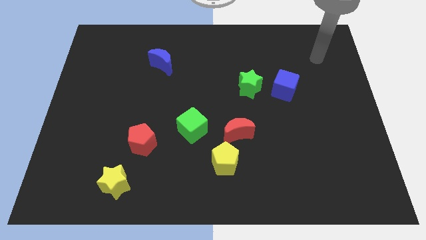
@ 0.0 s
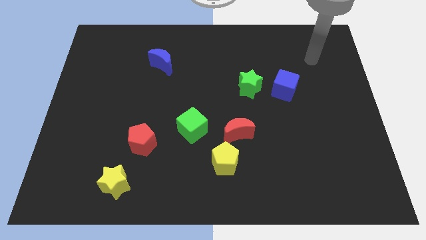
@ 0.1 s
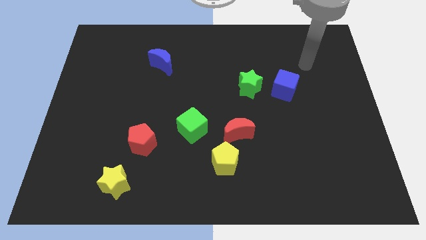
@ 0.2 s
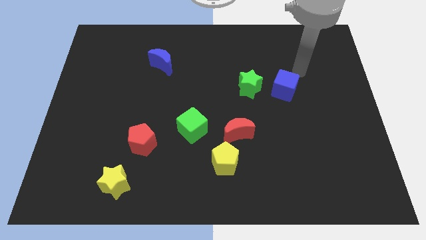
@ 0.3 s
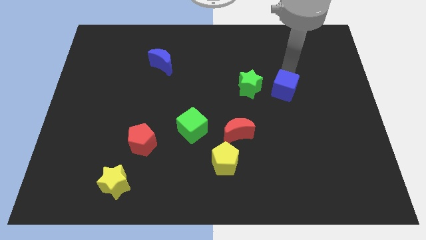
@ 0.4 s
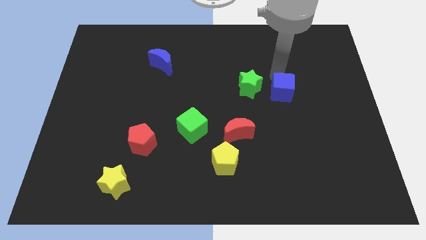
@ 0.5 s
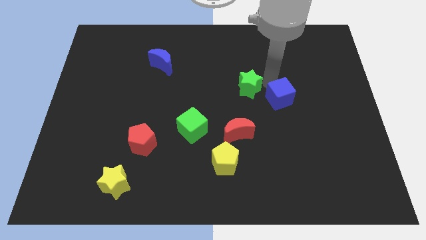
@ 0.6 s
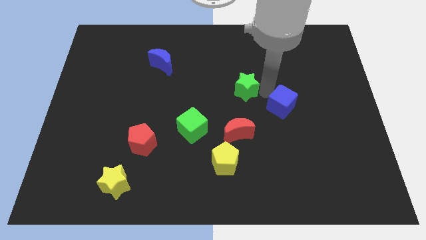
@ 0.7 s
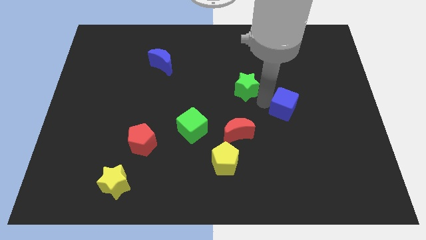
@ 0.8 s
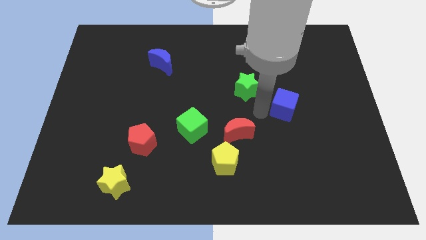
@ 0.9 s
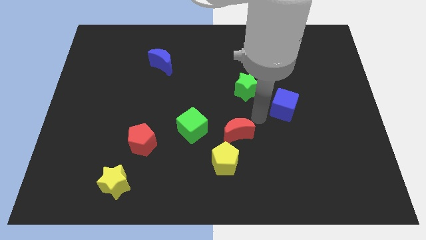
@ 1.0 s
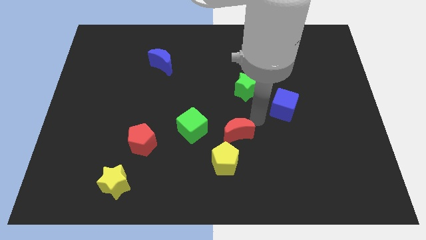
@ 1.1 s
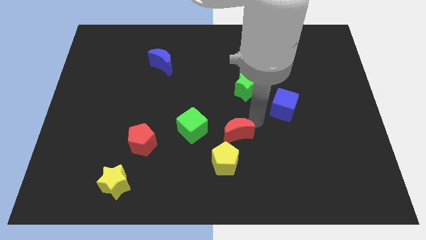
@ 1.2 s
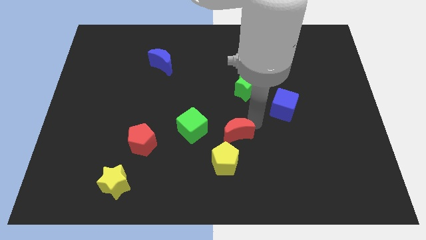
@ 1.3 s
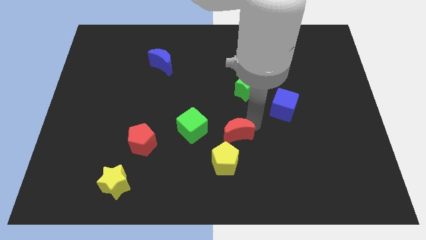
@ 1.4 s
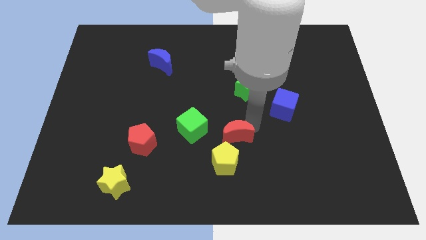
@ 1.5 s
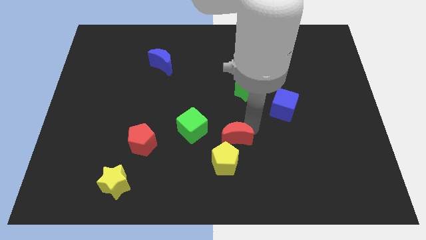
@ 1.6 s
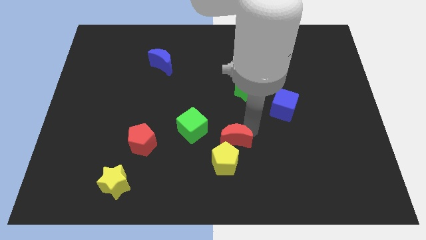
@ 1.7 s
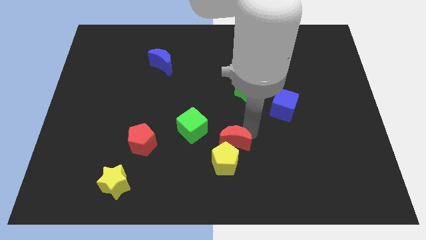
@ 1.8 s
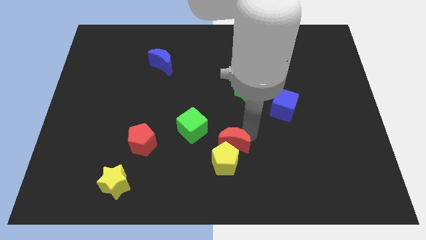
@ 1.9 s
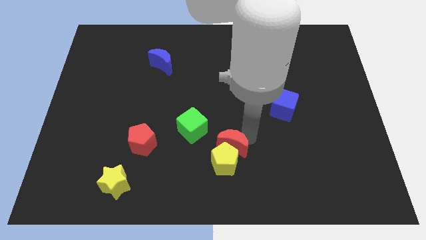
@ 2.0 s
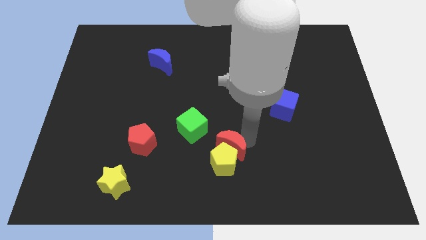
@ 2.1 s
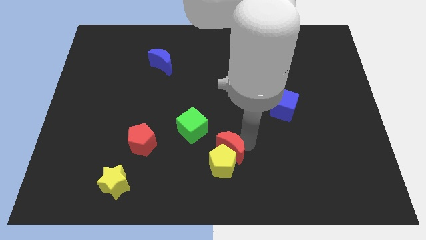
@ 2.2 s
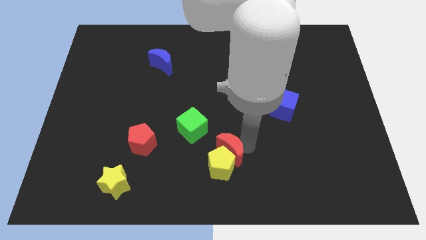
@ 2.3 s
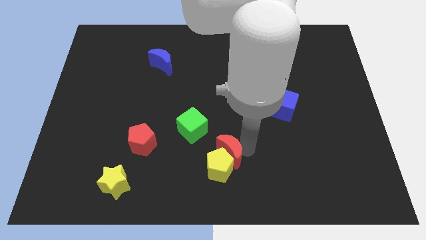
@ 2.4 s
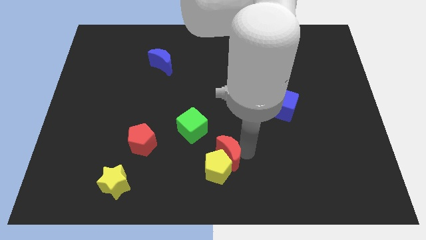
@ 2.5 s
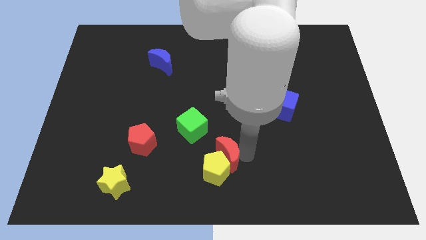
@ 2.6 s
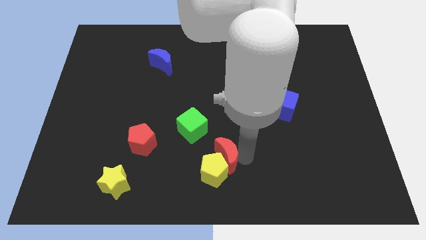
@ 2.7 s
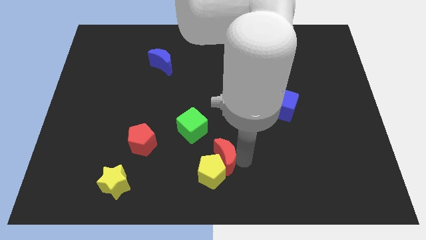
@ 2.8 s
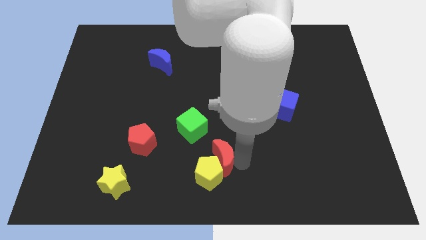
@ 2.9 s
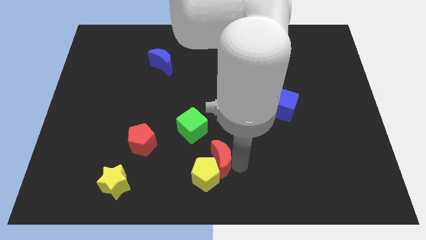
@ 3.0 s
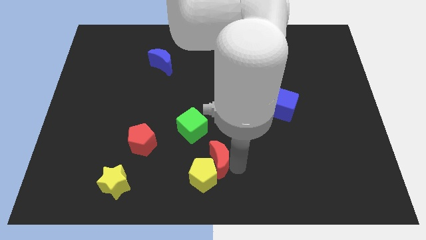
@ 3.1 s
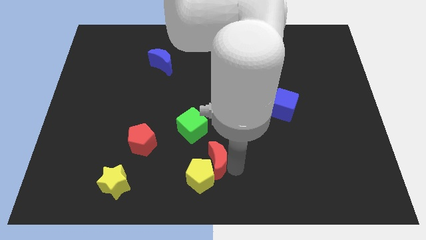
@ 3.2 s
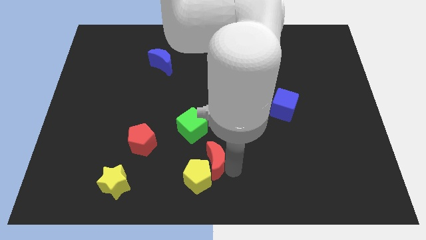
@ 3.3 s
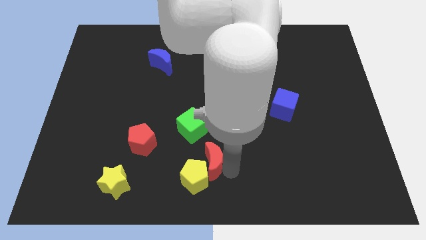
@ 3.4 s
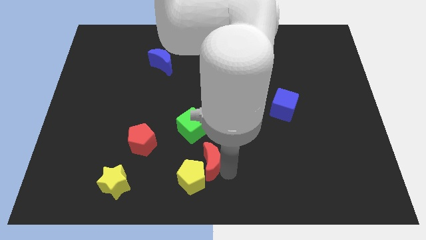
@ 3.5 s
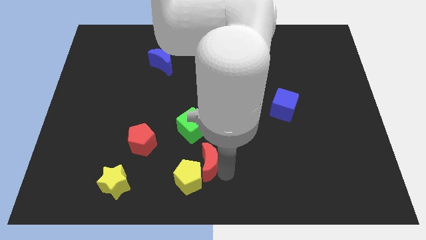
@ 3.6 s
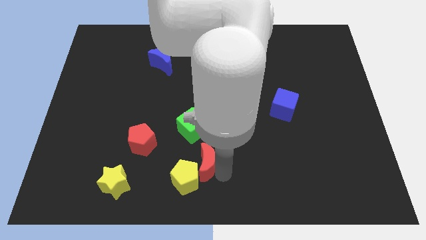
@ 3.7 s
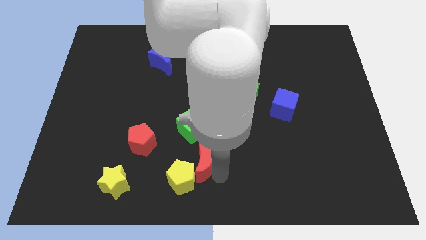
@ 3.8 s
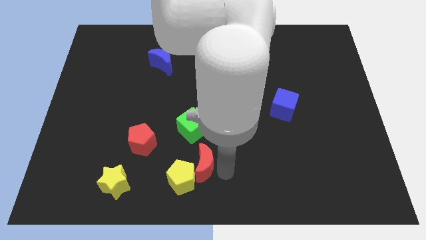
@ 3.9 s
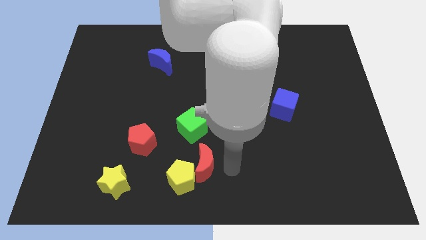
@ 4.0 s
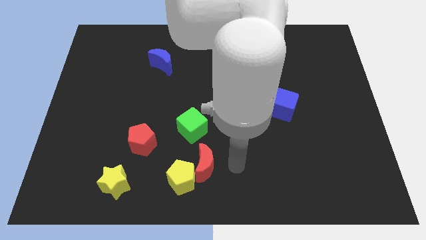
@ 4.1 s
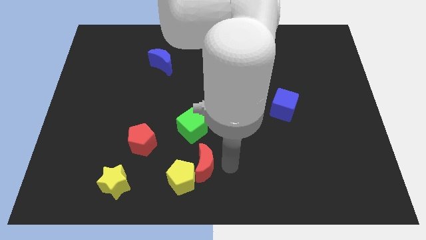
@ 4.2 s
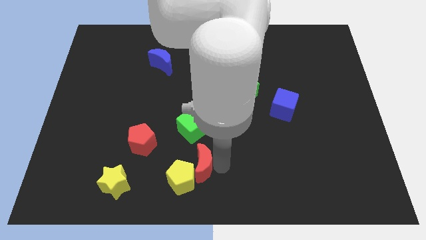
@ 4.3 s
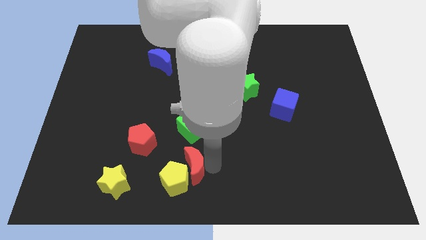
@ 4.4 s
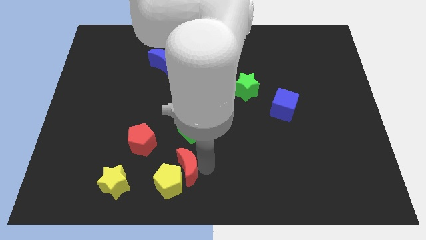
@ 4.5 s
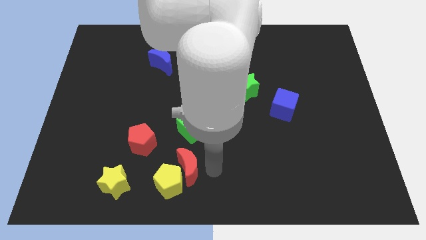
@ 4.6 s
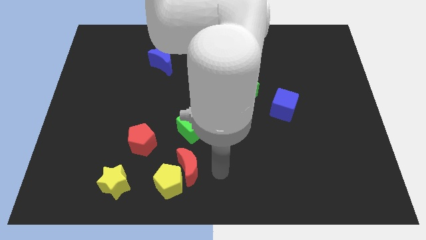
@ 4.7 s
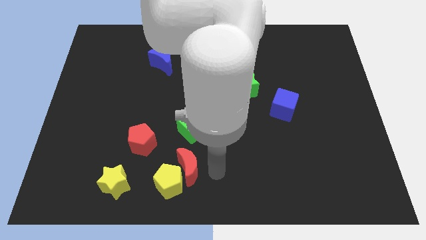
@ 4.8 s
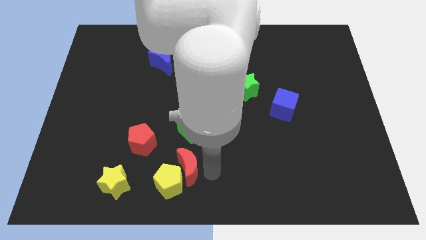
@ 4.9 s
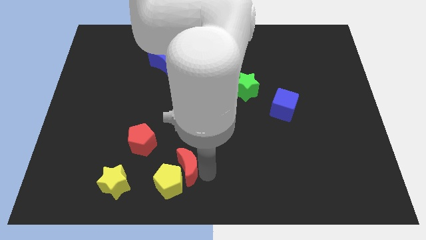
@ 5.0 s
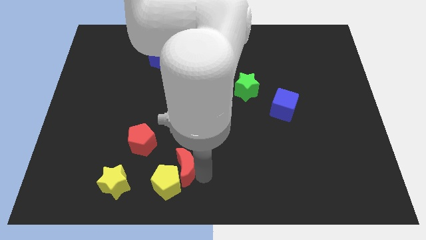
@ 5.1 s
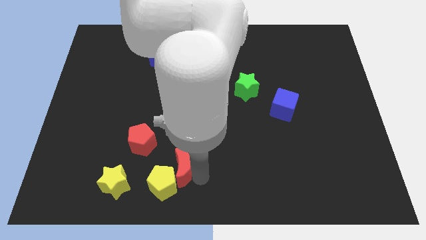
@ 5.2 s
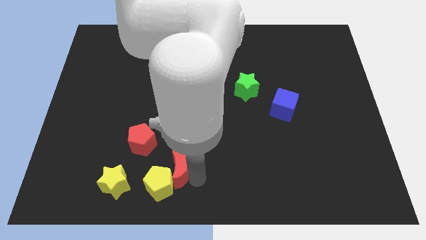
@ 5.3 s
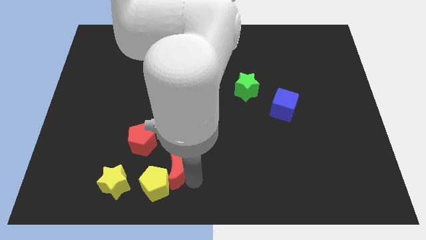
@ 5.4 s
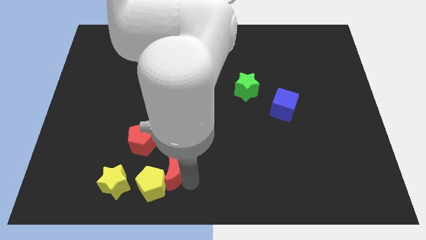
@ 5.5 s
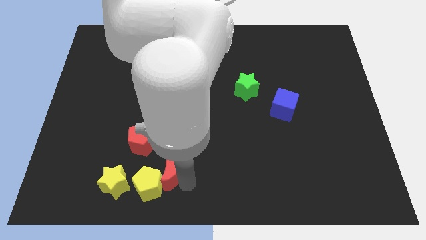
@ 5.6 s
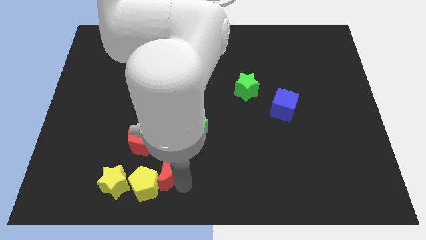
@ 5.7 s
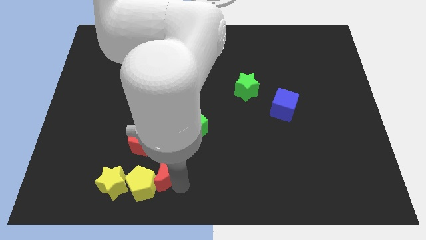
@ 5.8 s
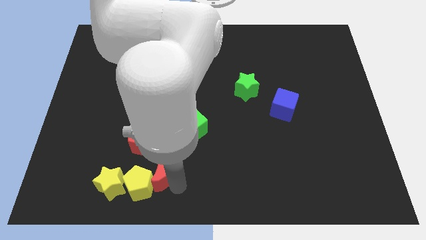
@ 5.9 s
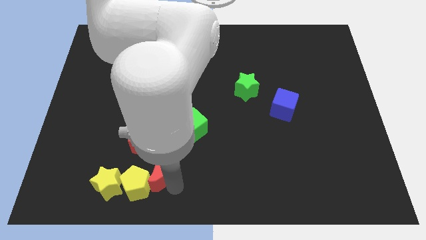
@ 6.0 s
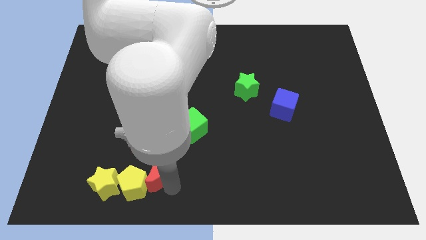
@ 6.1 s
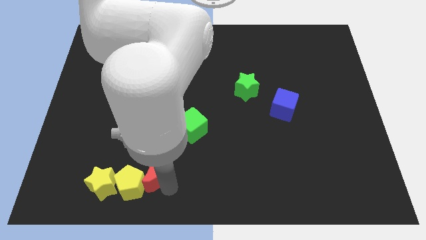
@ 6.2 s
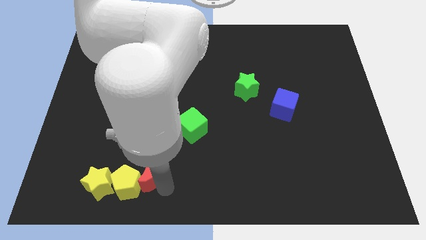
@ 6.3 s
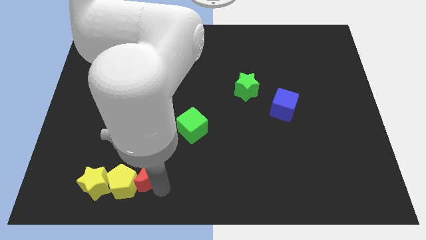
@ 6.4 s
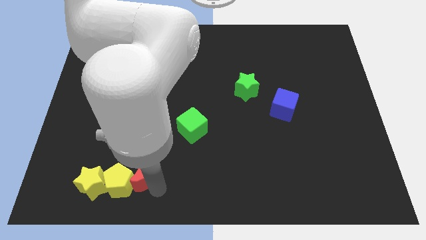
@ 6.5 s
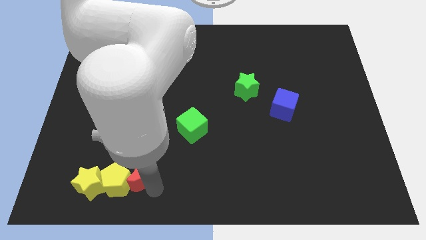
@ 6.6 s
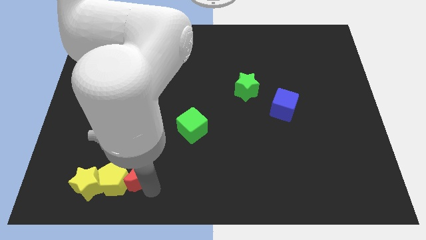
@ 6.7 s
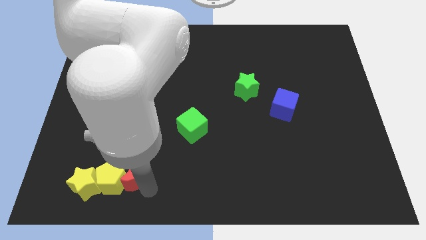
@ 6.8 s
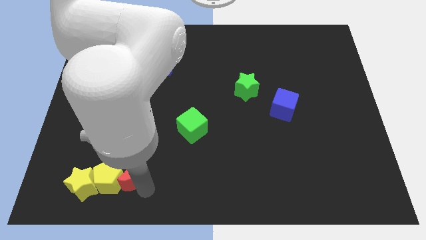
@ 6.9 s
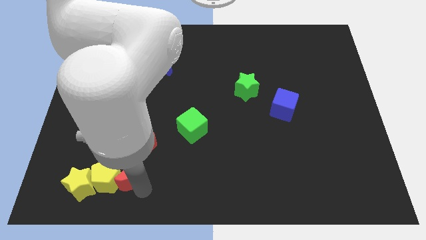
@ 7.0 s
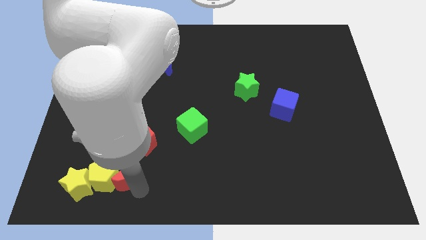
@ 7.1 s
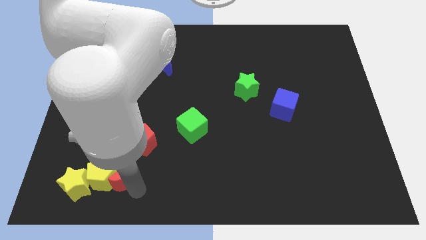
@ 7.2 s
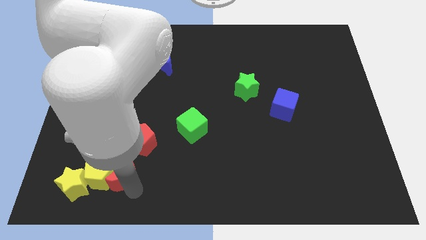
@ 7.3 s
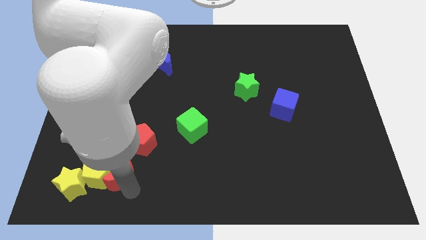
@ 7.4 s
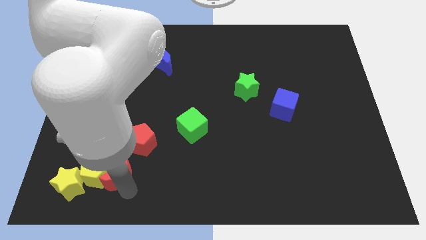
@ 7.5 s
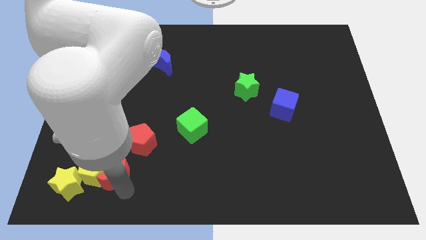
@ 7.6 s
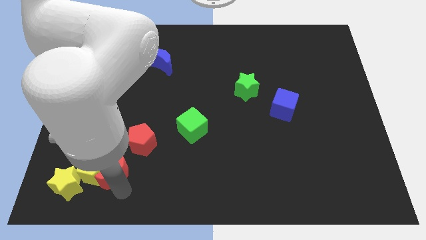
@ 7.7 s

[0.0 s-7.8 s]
move the red moon left

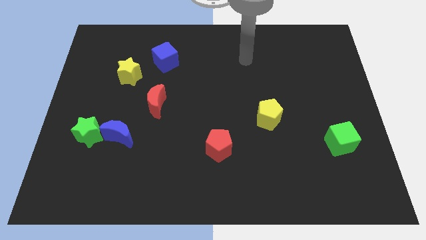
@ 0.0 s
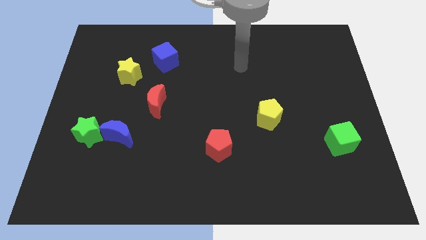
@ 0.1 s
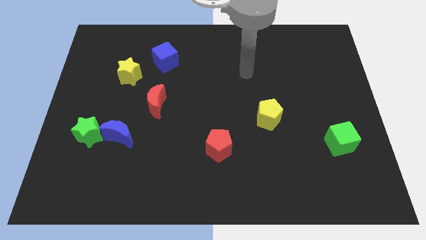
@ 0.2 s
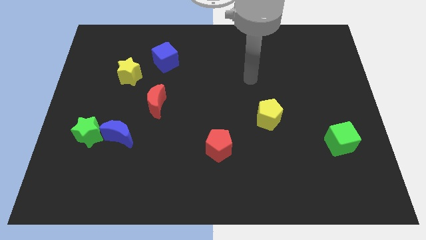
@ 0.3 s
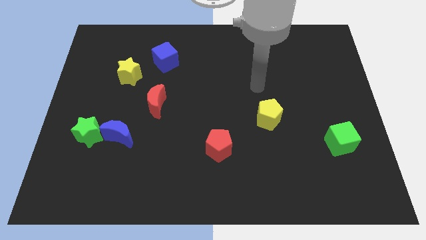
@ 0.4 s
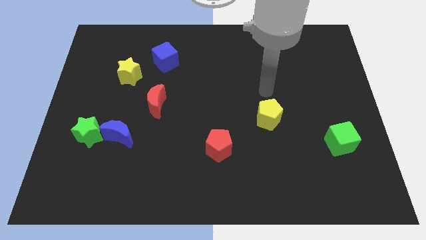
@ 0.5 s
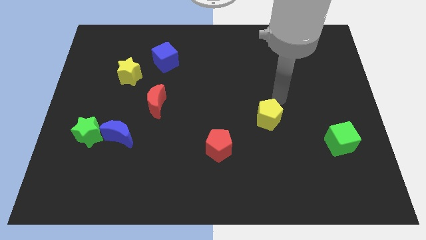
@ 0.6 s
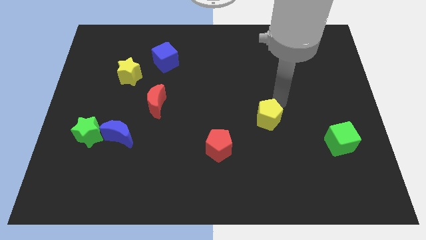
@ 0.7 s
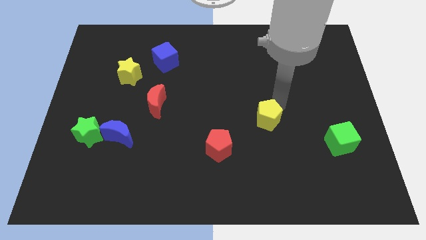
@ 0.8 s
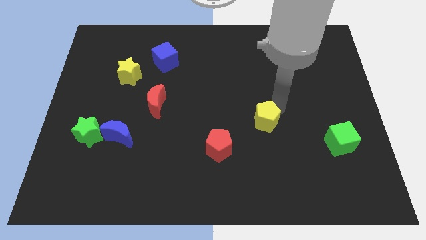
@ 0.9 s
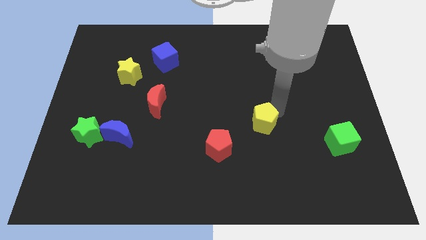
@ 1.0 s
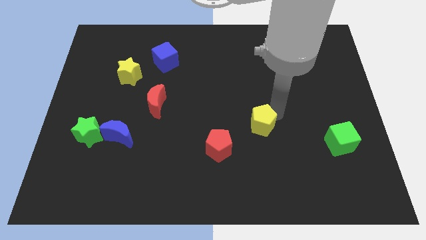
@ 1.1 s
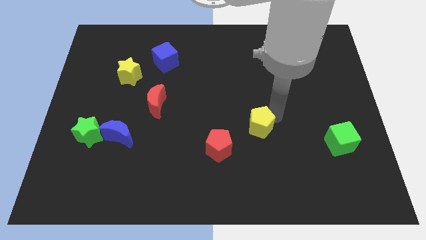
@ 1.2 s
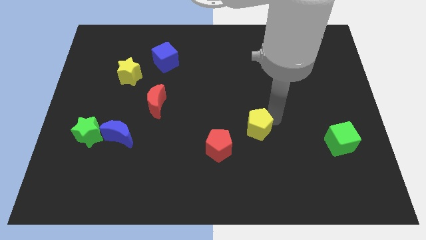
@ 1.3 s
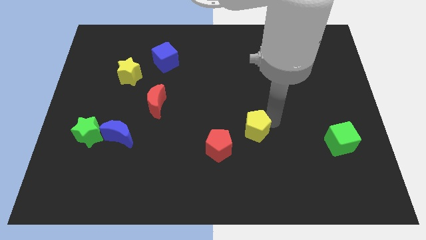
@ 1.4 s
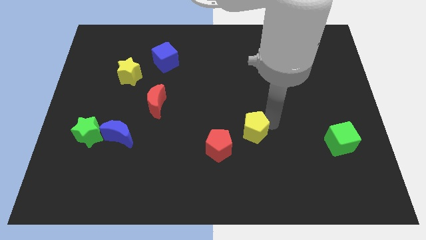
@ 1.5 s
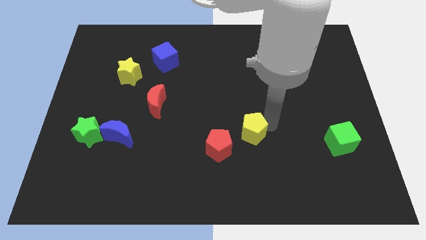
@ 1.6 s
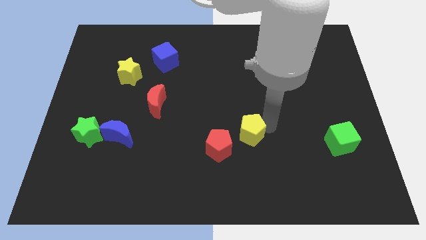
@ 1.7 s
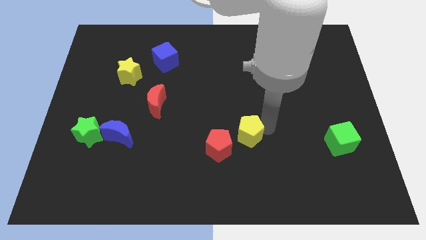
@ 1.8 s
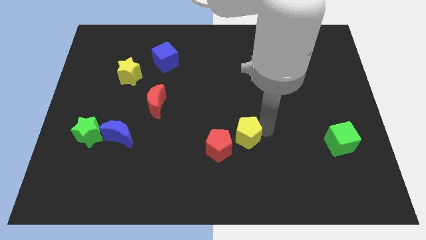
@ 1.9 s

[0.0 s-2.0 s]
move the yellow pentagon down and to the left diagonally slightly
